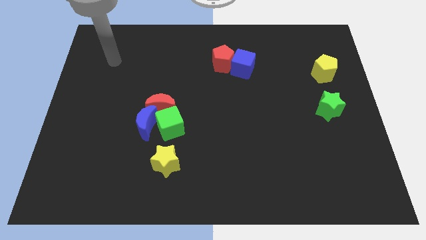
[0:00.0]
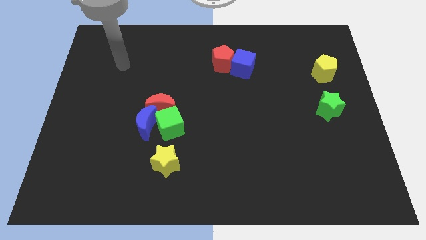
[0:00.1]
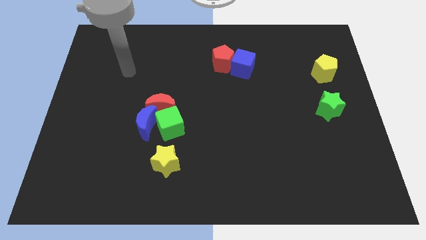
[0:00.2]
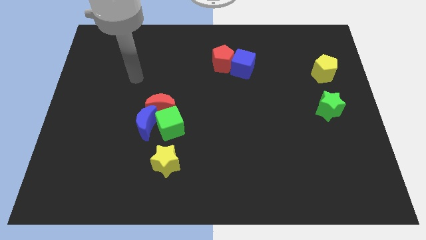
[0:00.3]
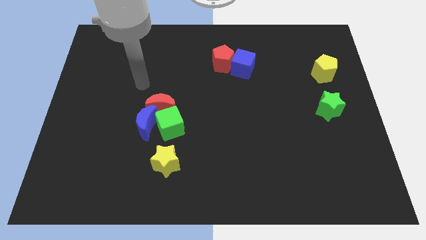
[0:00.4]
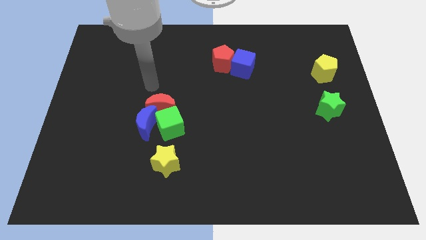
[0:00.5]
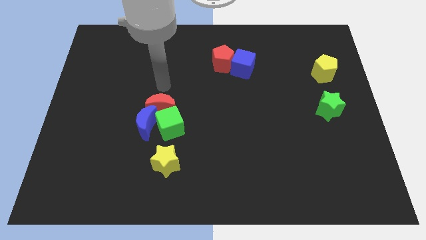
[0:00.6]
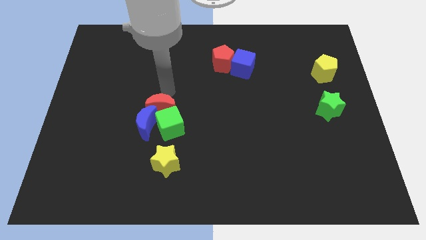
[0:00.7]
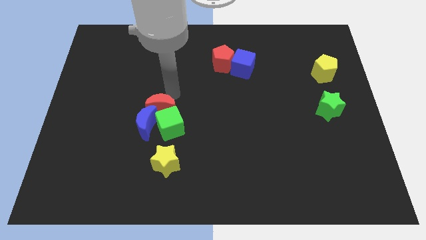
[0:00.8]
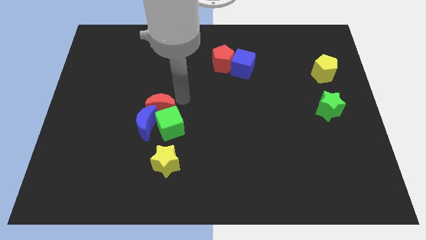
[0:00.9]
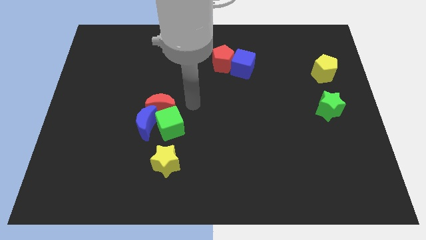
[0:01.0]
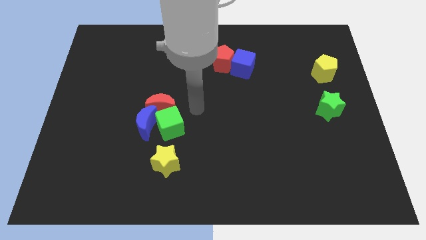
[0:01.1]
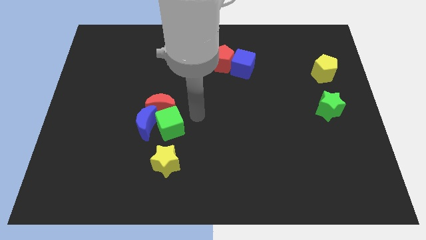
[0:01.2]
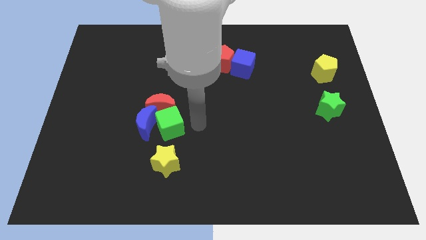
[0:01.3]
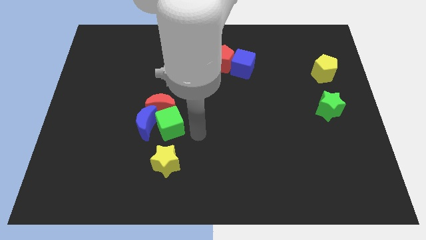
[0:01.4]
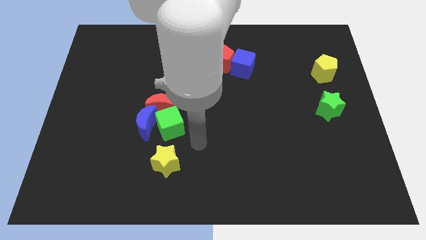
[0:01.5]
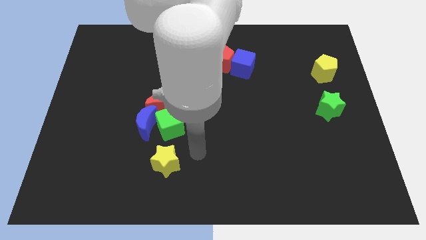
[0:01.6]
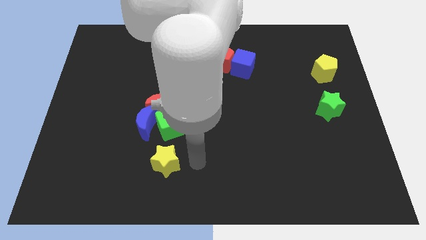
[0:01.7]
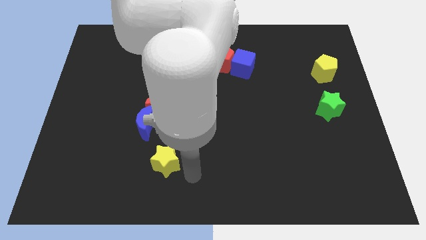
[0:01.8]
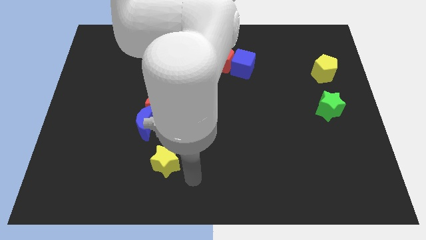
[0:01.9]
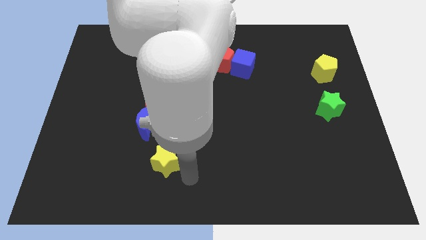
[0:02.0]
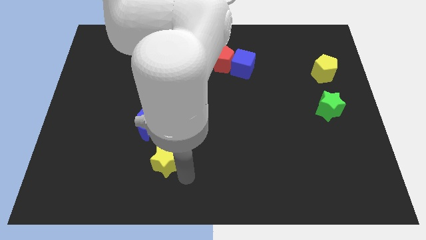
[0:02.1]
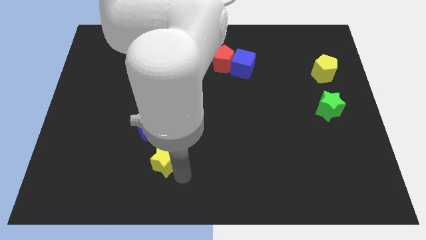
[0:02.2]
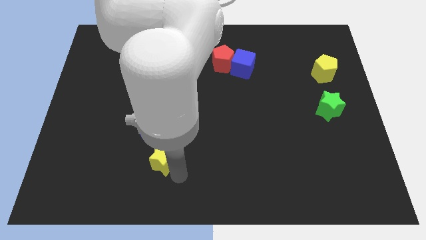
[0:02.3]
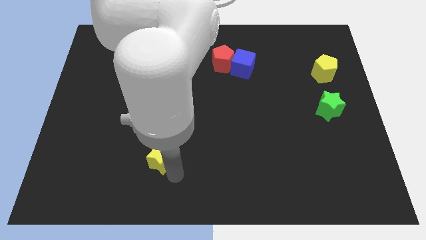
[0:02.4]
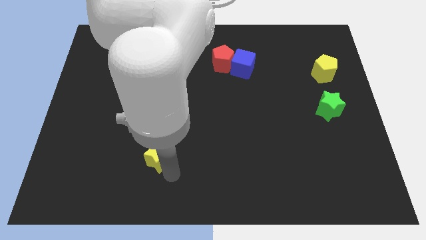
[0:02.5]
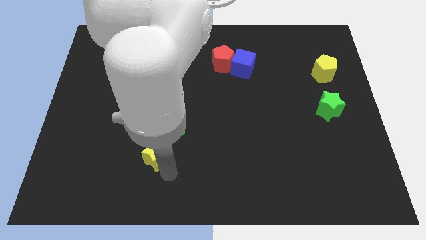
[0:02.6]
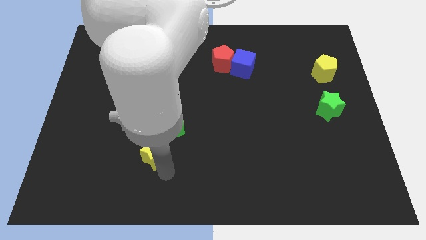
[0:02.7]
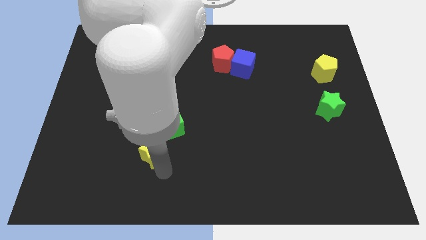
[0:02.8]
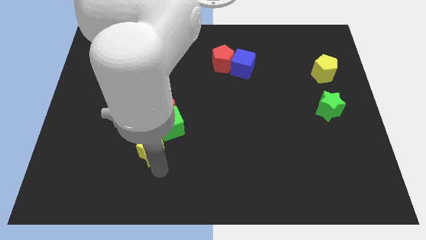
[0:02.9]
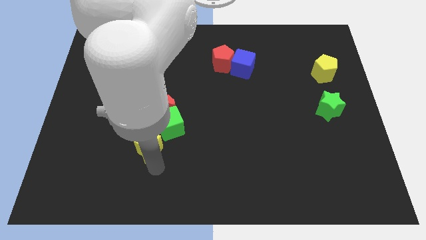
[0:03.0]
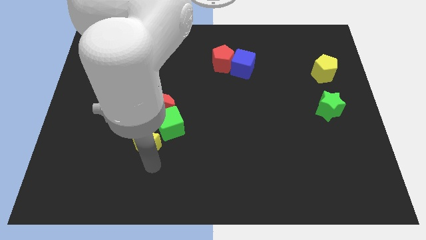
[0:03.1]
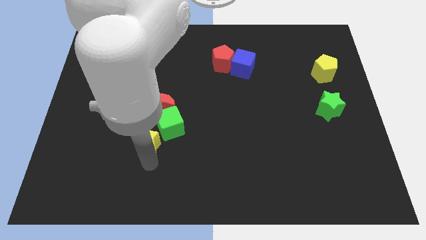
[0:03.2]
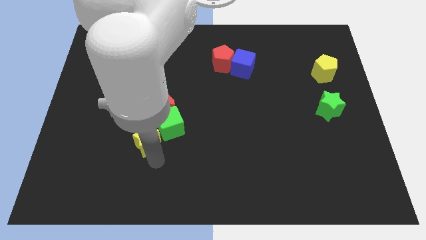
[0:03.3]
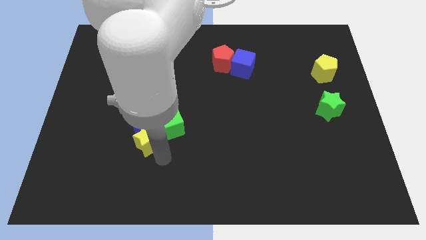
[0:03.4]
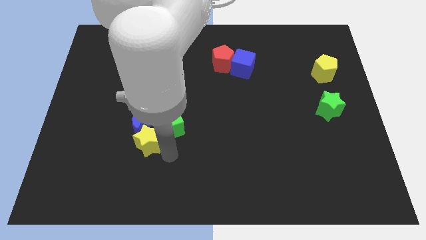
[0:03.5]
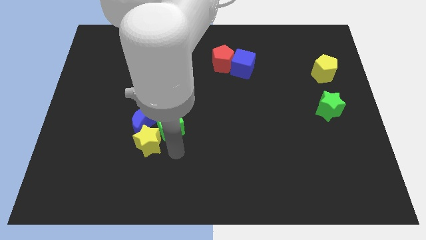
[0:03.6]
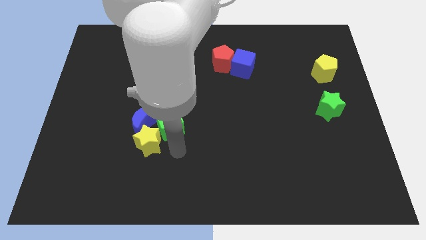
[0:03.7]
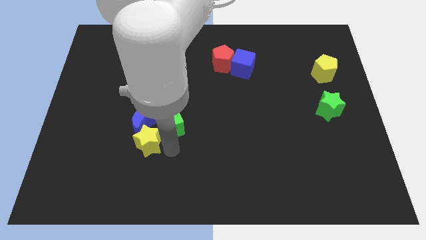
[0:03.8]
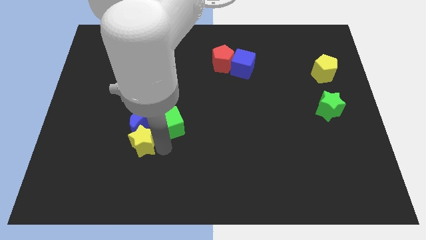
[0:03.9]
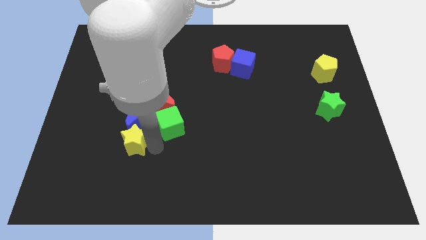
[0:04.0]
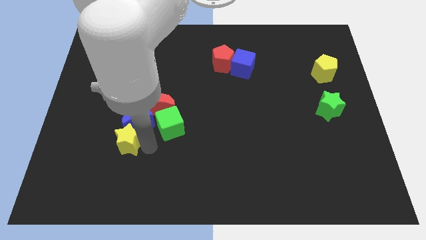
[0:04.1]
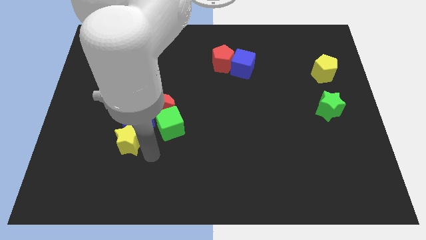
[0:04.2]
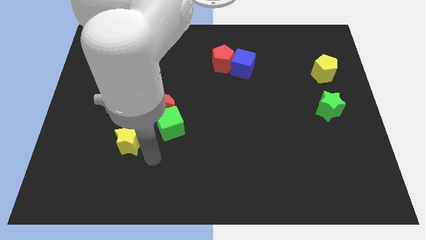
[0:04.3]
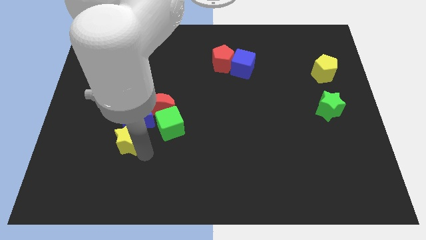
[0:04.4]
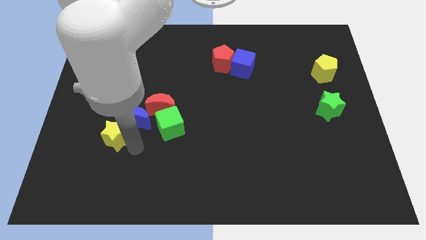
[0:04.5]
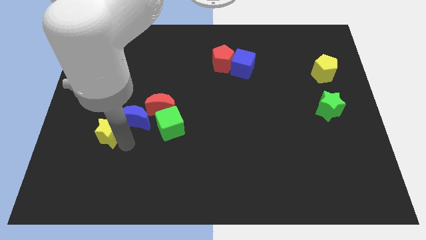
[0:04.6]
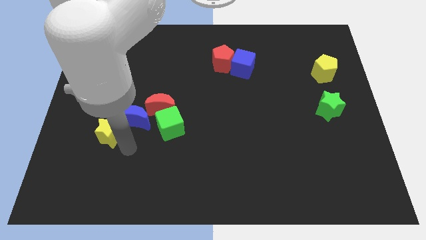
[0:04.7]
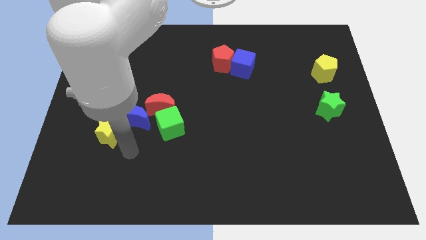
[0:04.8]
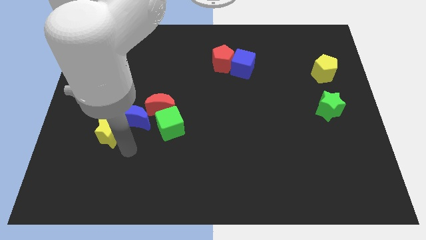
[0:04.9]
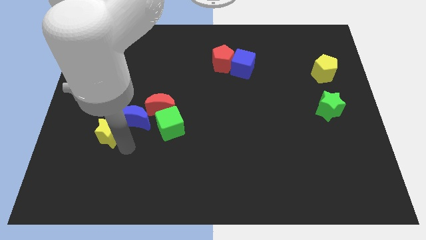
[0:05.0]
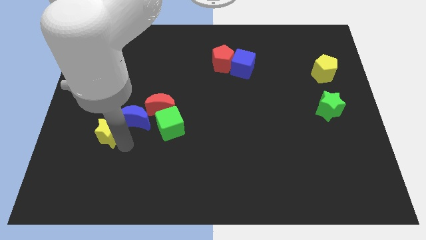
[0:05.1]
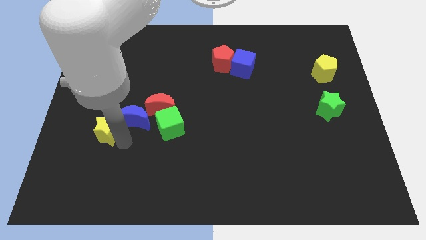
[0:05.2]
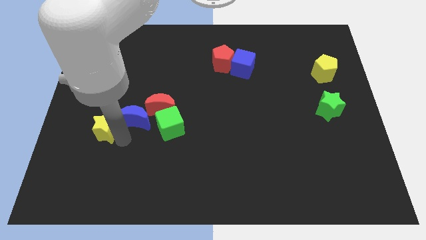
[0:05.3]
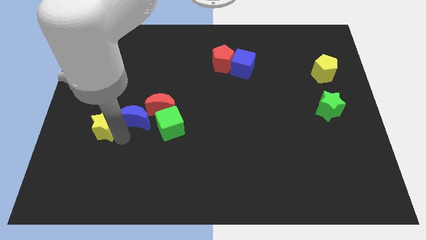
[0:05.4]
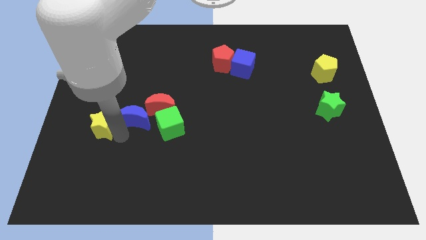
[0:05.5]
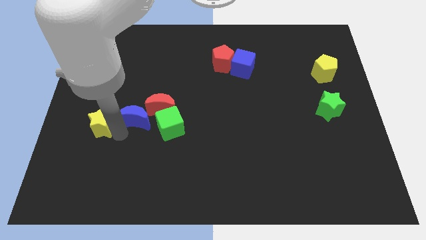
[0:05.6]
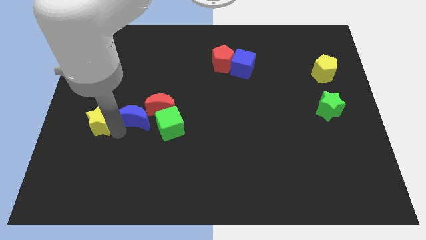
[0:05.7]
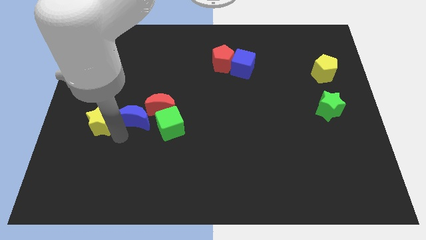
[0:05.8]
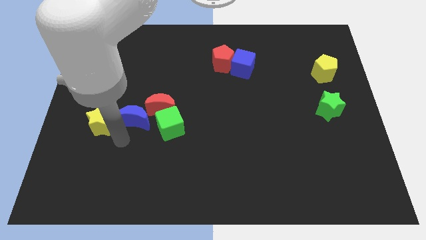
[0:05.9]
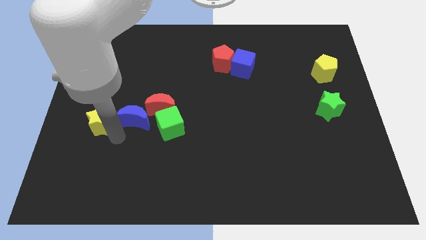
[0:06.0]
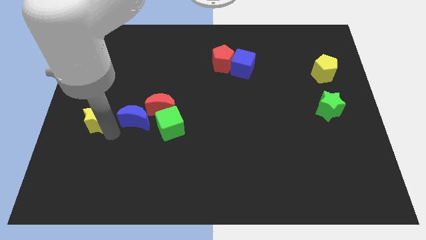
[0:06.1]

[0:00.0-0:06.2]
slide the yellow star to the left side
